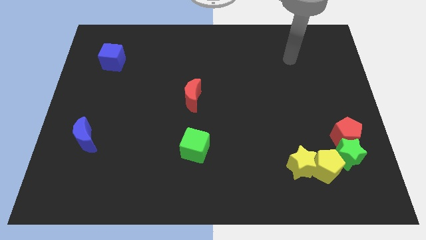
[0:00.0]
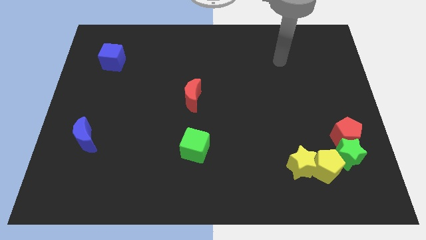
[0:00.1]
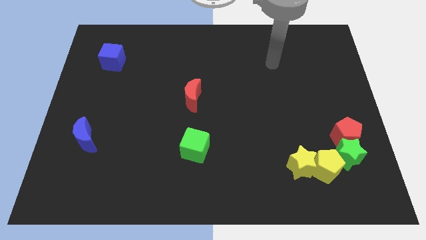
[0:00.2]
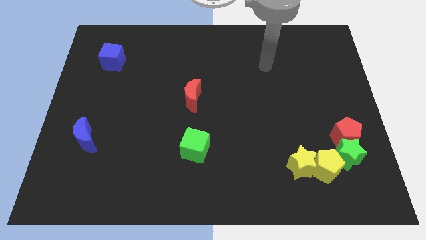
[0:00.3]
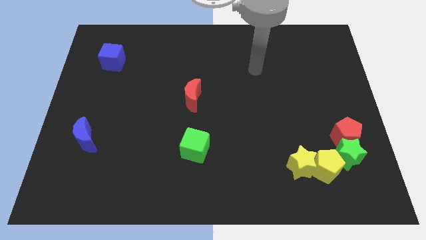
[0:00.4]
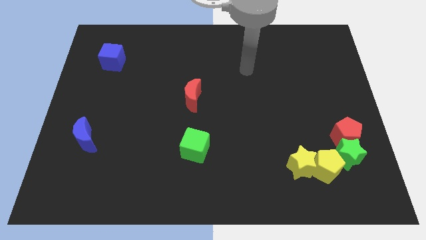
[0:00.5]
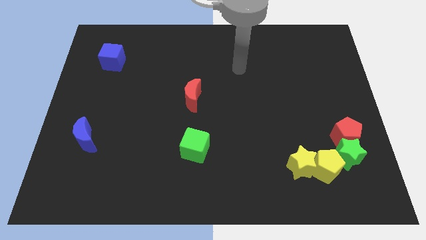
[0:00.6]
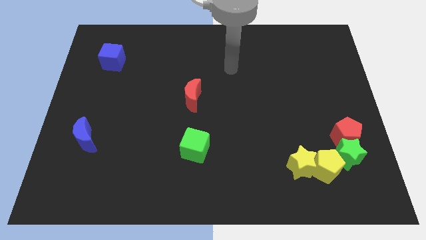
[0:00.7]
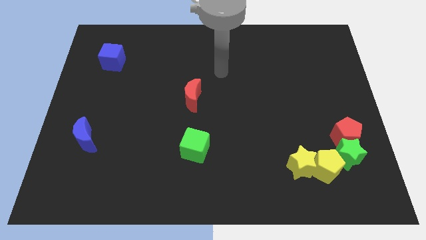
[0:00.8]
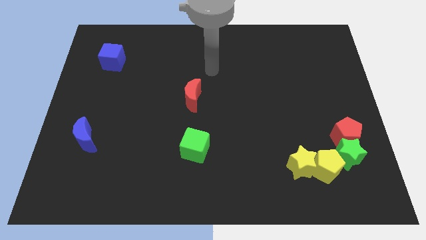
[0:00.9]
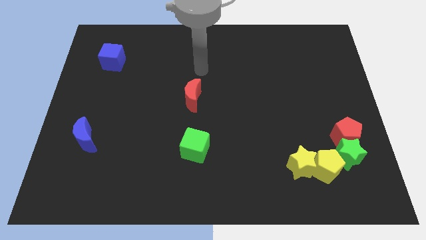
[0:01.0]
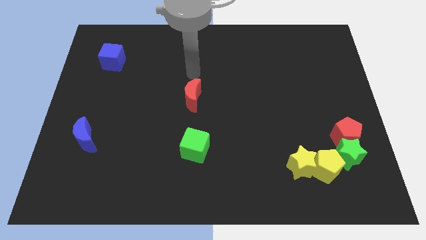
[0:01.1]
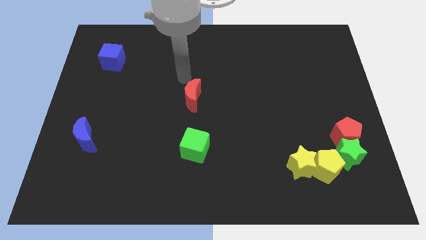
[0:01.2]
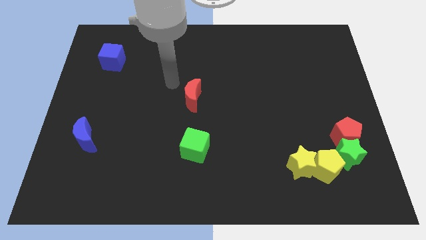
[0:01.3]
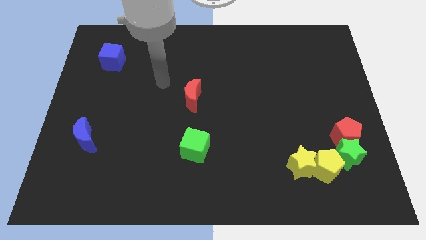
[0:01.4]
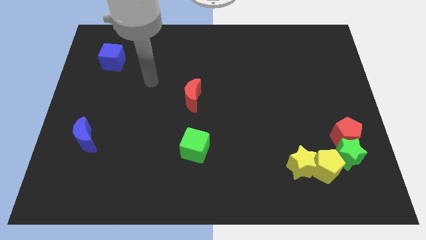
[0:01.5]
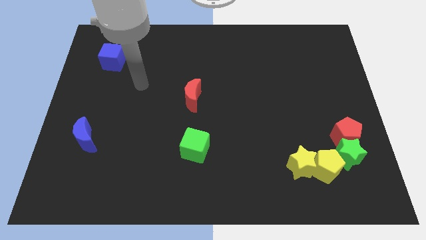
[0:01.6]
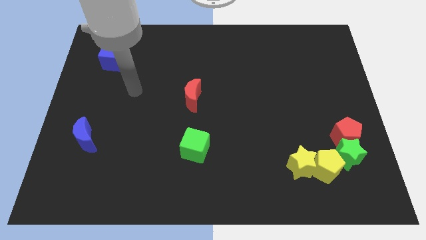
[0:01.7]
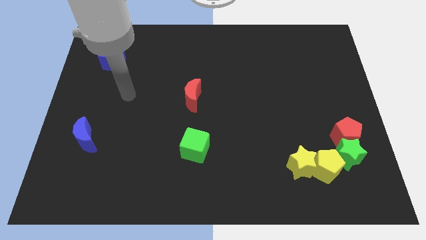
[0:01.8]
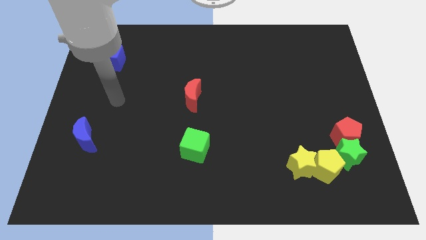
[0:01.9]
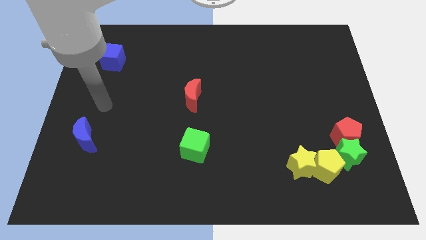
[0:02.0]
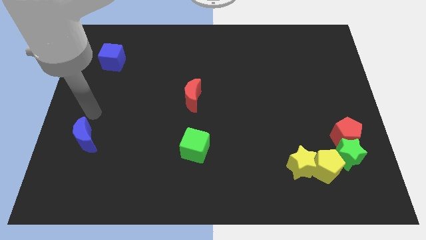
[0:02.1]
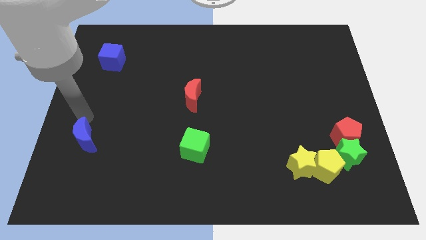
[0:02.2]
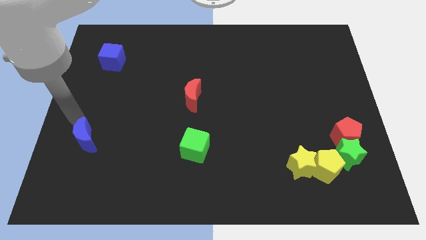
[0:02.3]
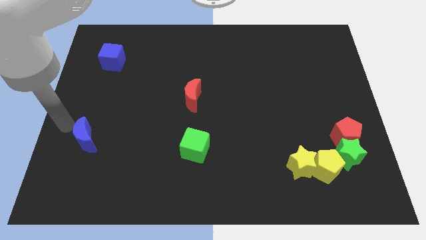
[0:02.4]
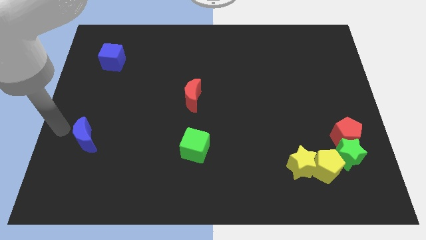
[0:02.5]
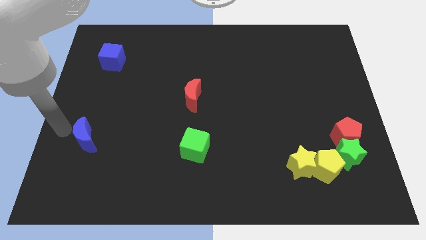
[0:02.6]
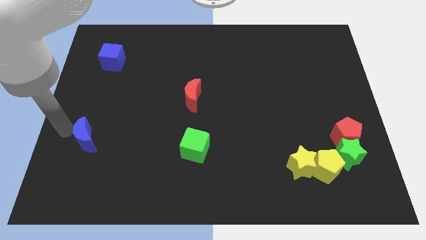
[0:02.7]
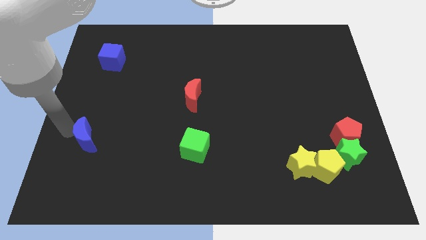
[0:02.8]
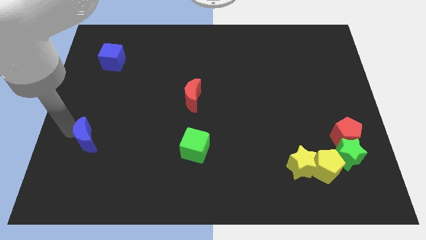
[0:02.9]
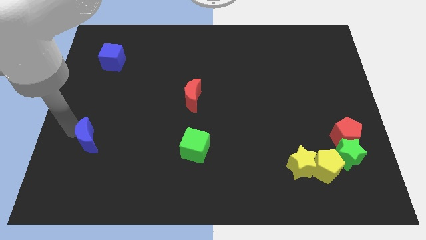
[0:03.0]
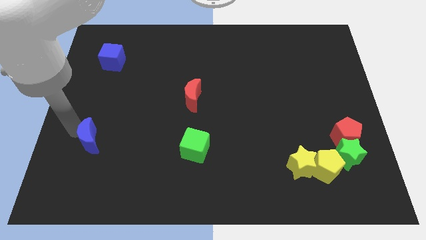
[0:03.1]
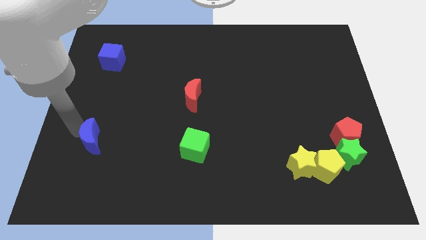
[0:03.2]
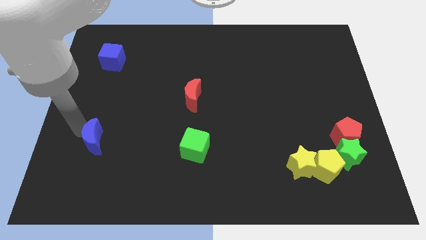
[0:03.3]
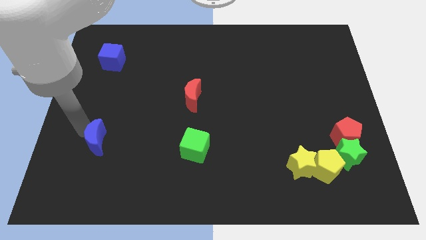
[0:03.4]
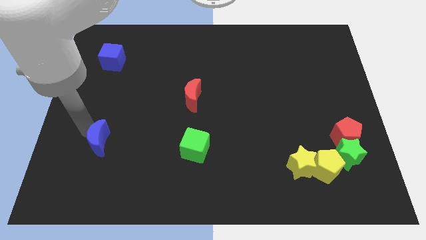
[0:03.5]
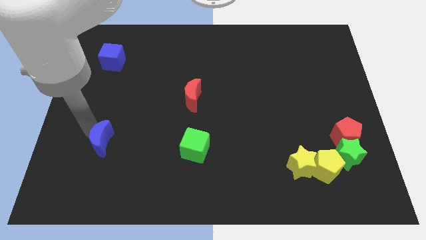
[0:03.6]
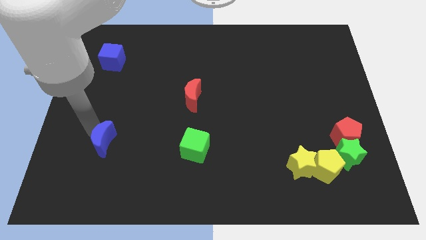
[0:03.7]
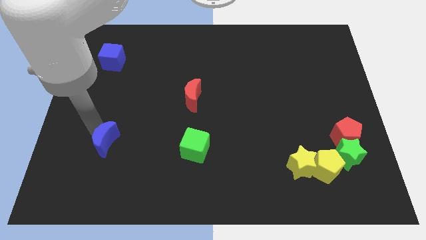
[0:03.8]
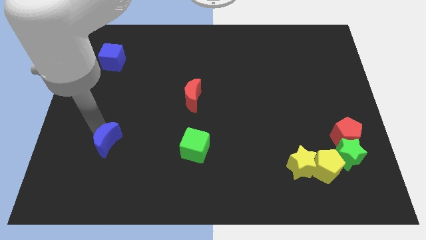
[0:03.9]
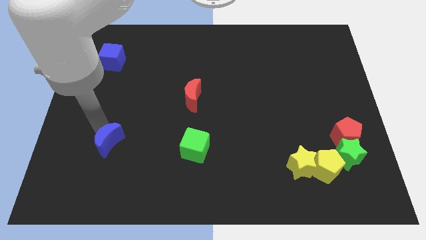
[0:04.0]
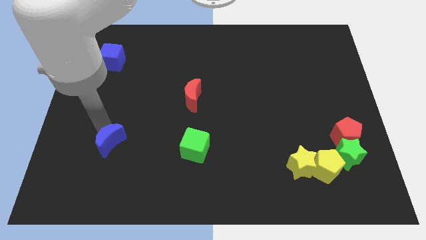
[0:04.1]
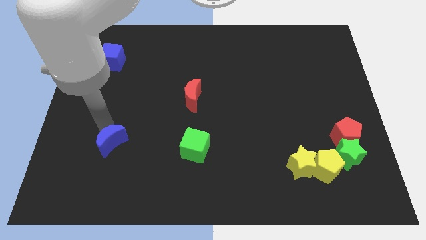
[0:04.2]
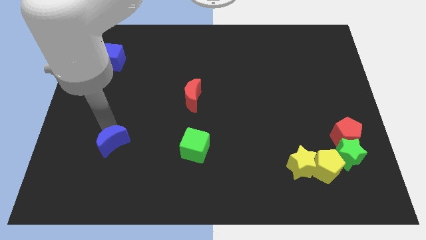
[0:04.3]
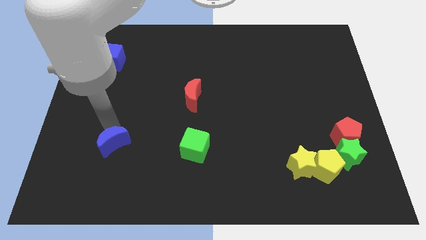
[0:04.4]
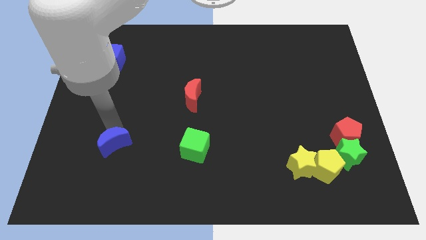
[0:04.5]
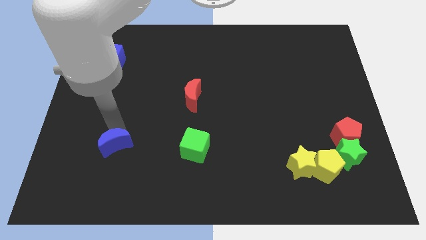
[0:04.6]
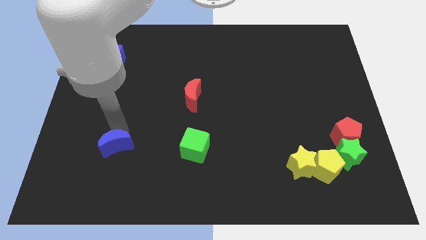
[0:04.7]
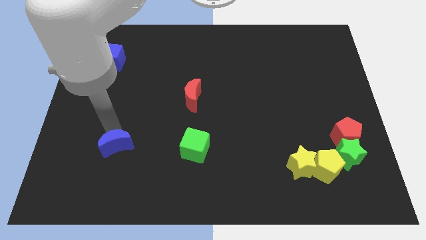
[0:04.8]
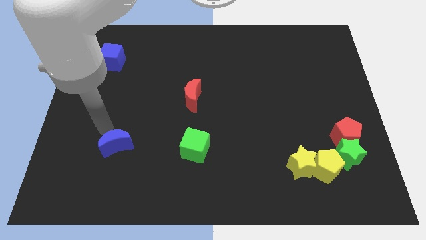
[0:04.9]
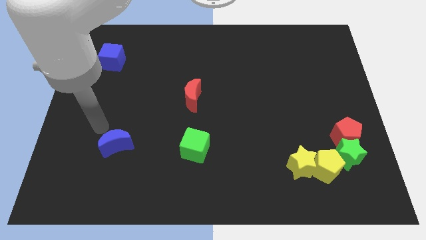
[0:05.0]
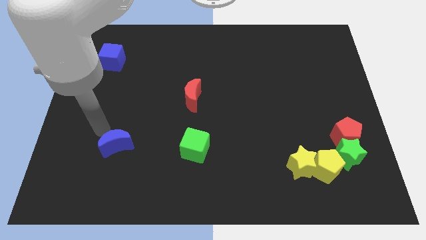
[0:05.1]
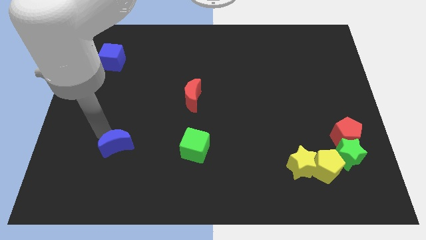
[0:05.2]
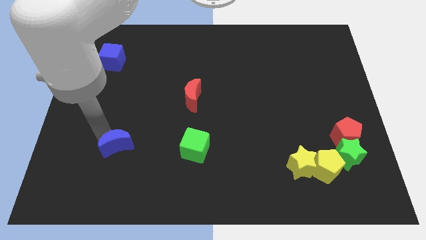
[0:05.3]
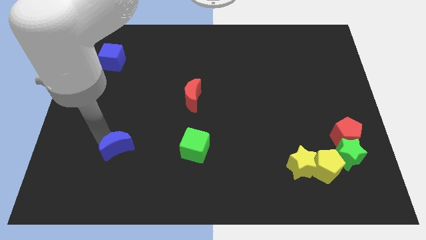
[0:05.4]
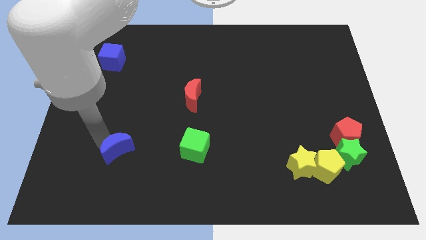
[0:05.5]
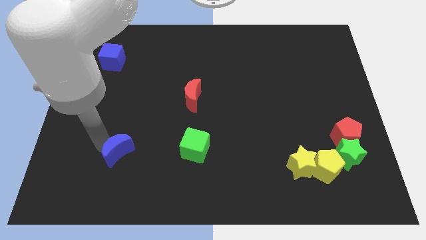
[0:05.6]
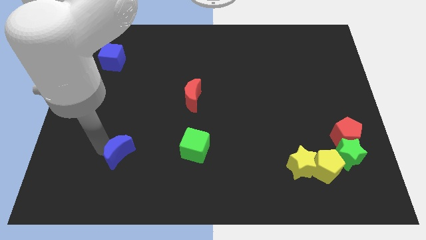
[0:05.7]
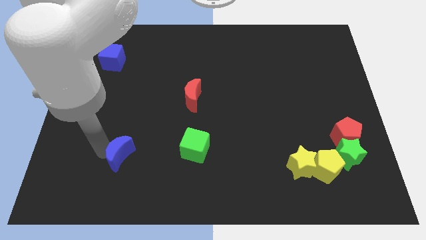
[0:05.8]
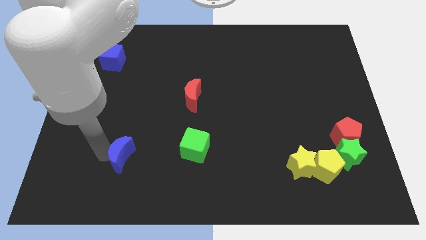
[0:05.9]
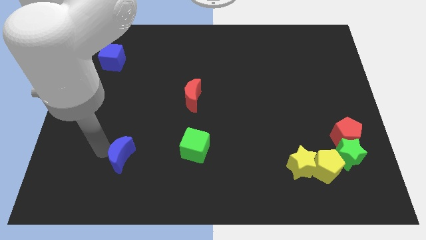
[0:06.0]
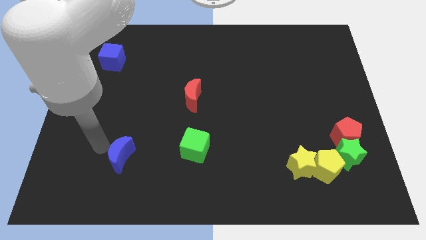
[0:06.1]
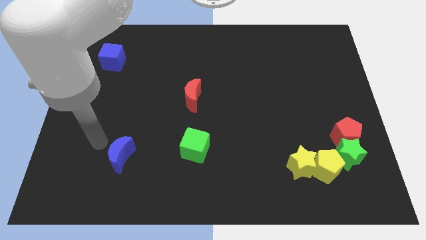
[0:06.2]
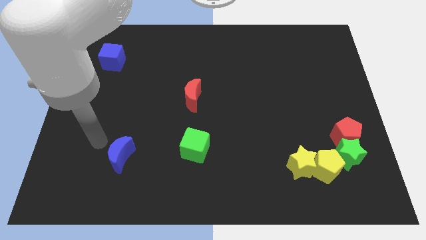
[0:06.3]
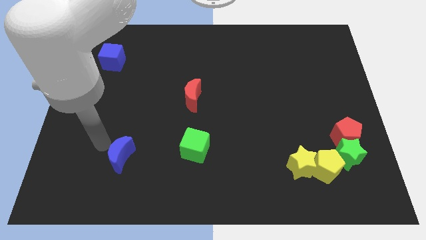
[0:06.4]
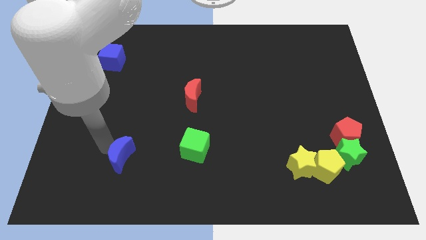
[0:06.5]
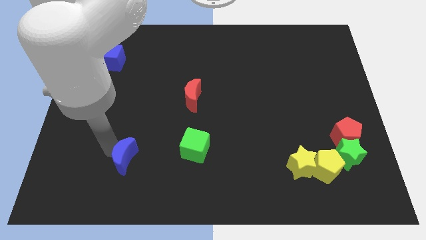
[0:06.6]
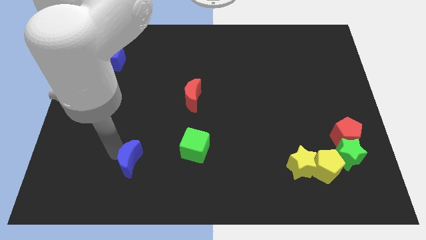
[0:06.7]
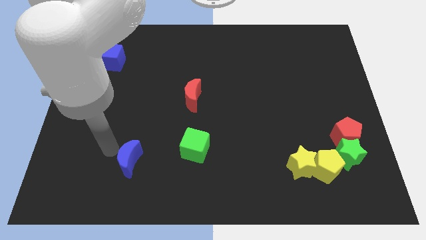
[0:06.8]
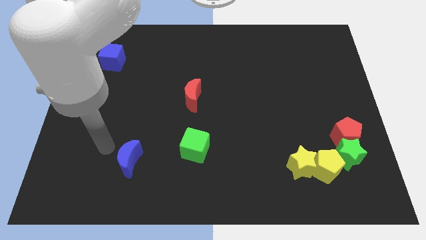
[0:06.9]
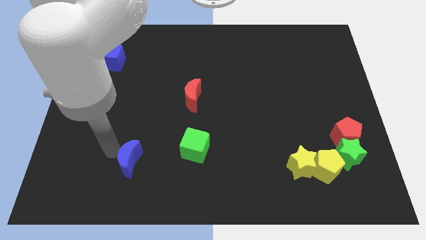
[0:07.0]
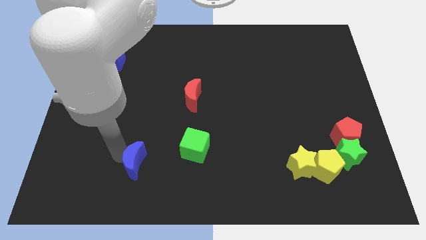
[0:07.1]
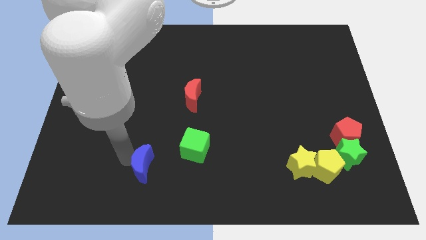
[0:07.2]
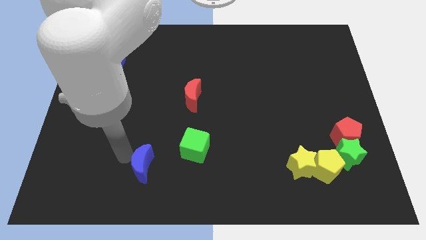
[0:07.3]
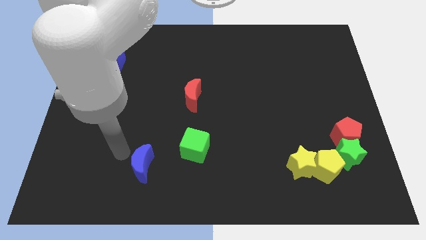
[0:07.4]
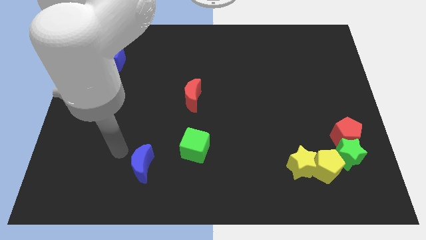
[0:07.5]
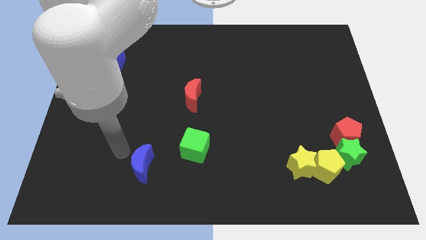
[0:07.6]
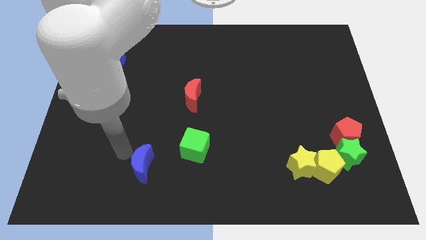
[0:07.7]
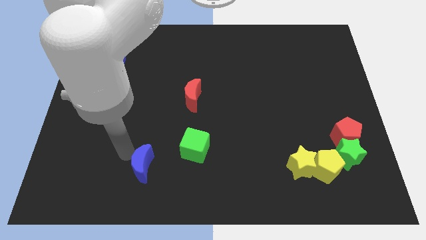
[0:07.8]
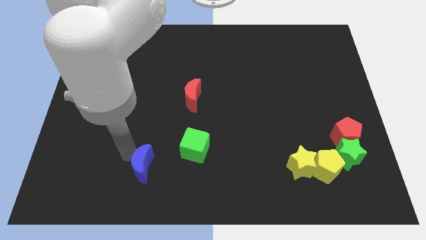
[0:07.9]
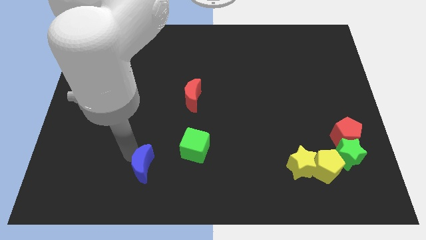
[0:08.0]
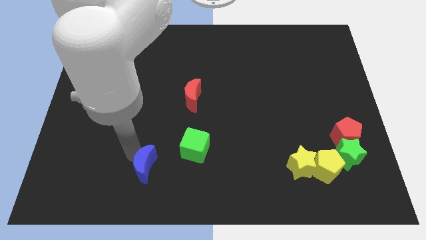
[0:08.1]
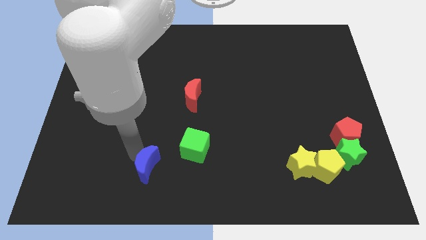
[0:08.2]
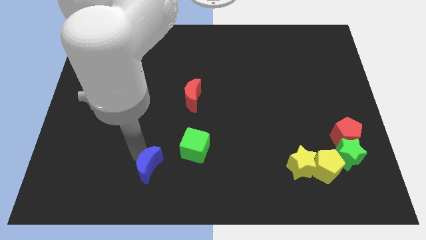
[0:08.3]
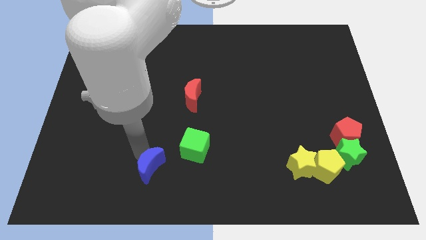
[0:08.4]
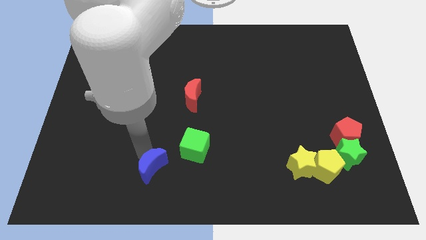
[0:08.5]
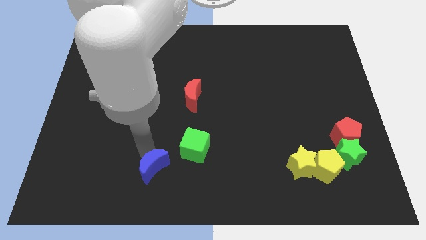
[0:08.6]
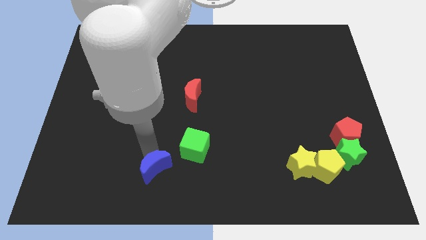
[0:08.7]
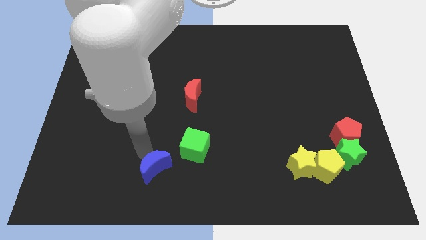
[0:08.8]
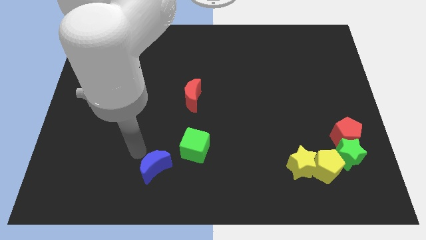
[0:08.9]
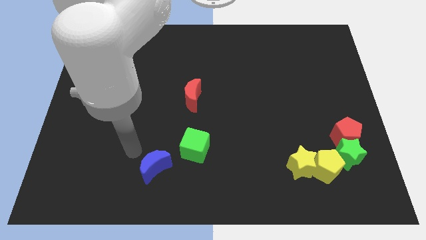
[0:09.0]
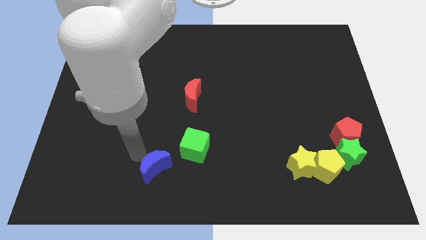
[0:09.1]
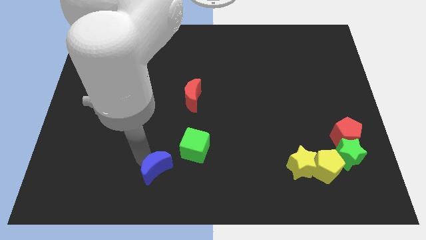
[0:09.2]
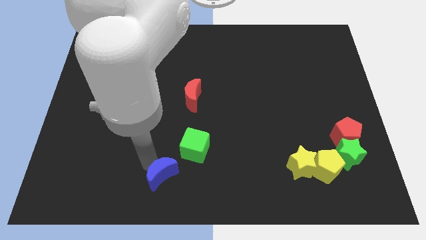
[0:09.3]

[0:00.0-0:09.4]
slide the blue moon to the bottom side
